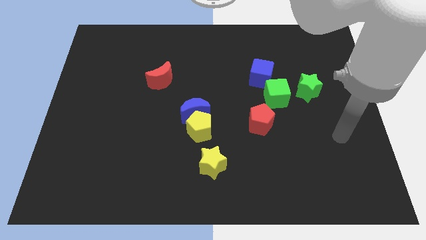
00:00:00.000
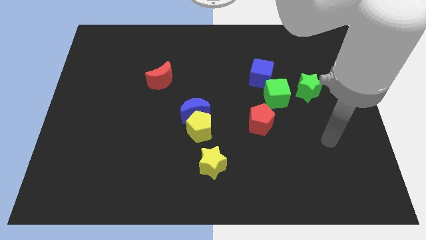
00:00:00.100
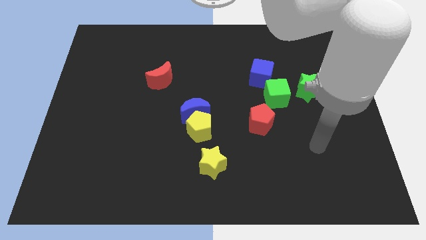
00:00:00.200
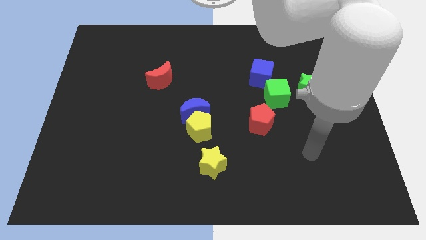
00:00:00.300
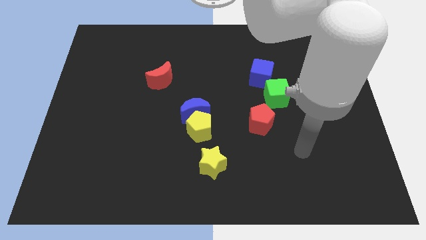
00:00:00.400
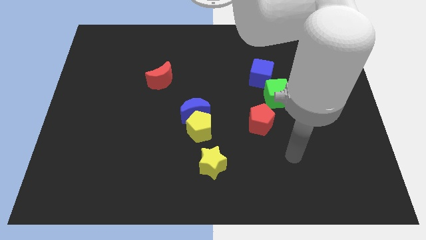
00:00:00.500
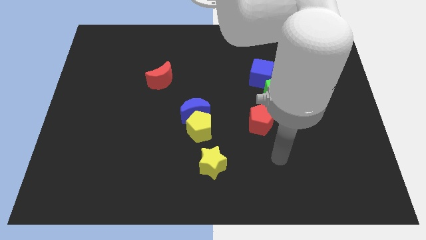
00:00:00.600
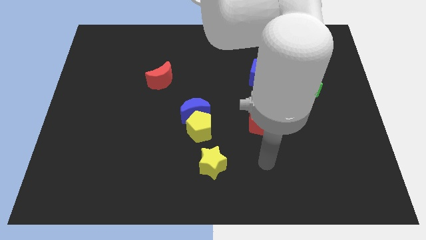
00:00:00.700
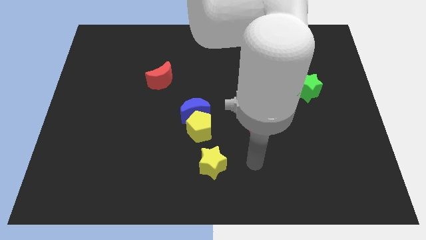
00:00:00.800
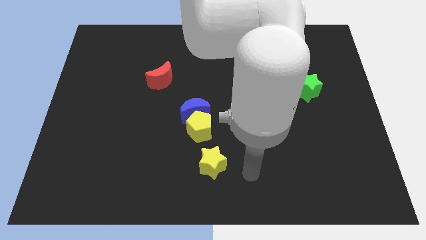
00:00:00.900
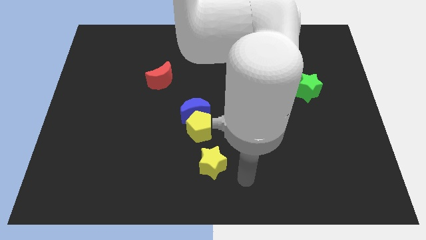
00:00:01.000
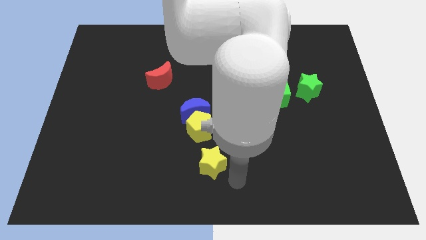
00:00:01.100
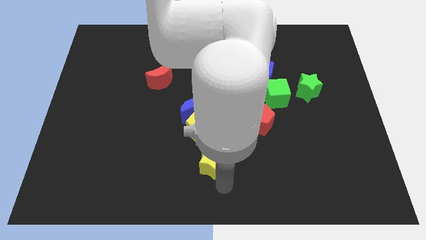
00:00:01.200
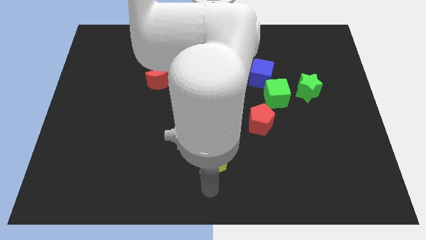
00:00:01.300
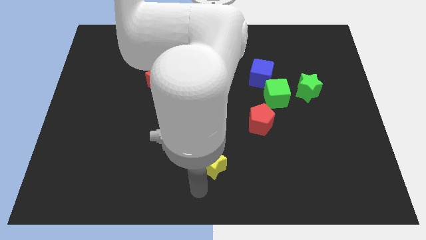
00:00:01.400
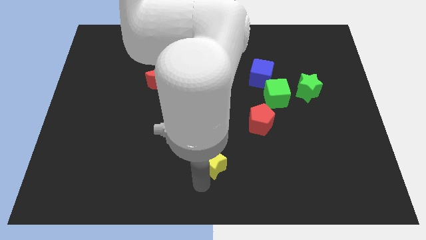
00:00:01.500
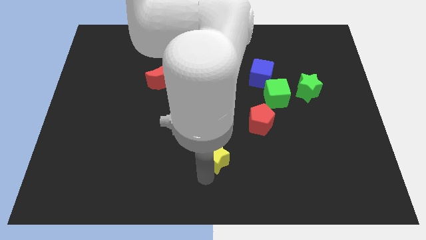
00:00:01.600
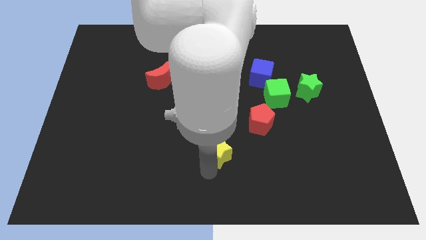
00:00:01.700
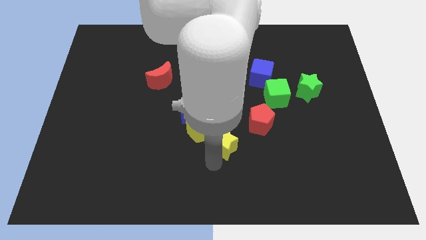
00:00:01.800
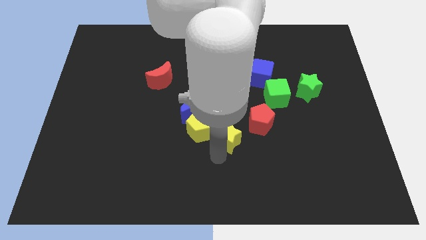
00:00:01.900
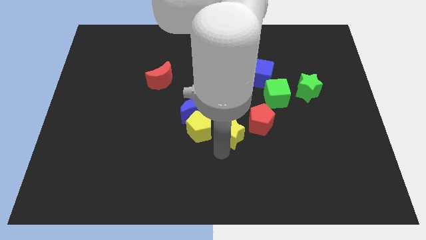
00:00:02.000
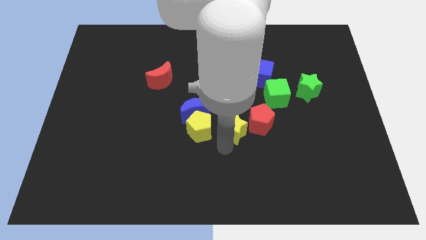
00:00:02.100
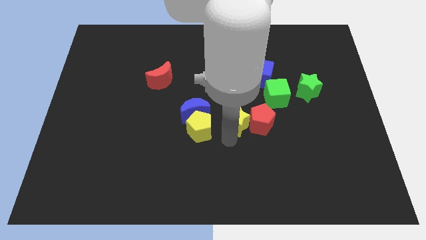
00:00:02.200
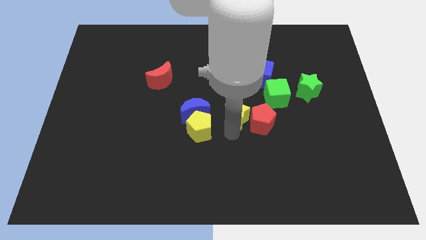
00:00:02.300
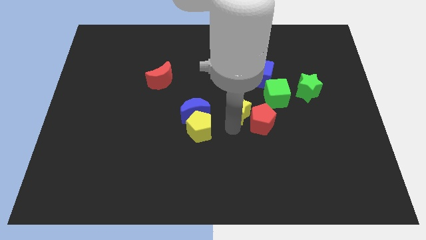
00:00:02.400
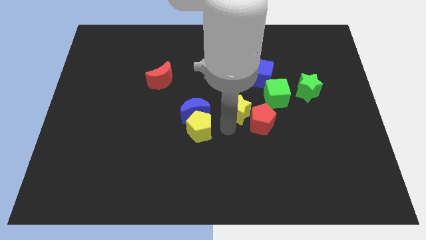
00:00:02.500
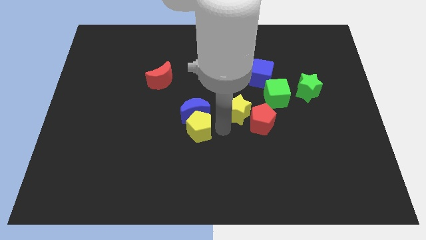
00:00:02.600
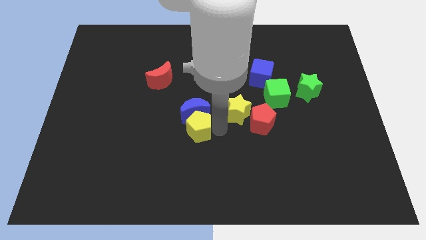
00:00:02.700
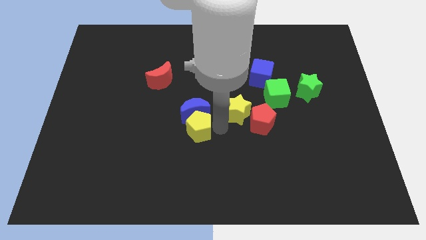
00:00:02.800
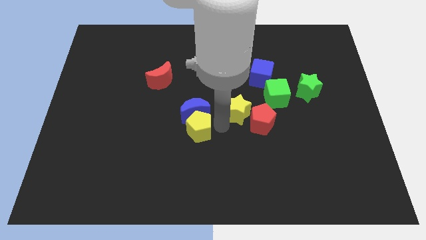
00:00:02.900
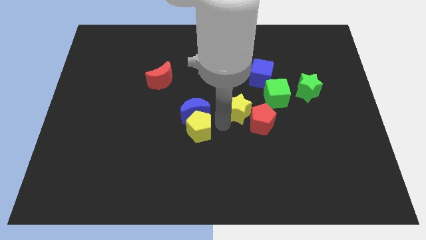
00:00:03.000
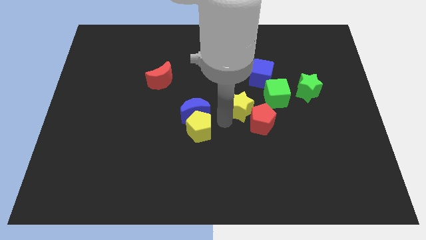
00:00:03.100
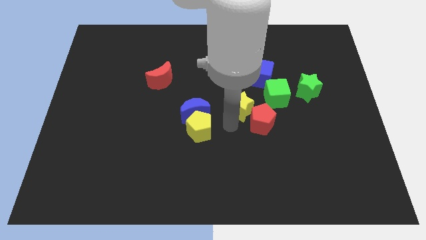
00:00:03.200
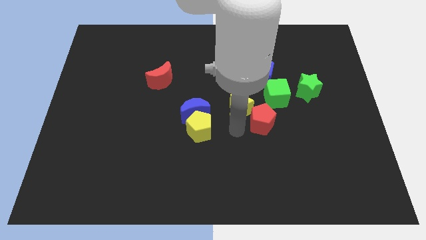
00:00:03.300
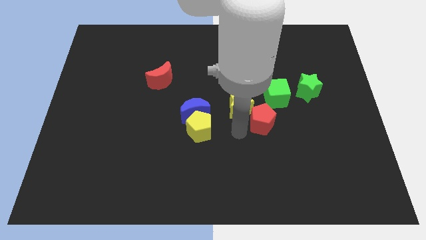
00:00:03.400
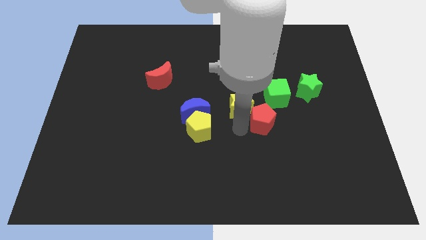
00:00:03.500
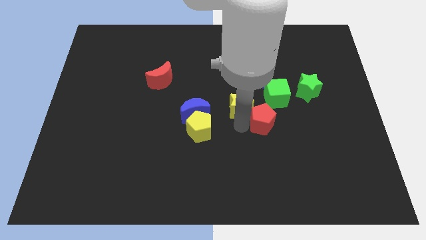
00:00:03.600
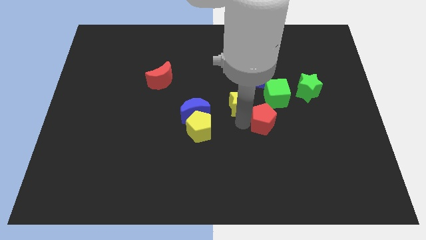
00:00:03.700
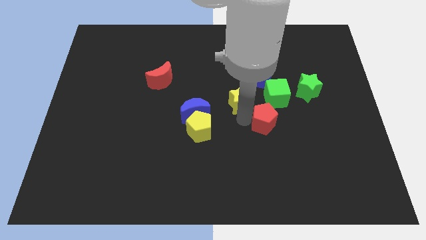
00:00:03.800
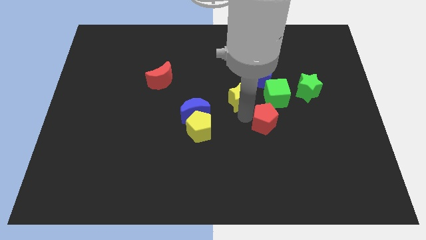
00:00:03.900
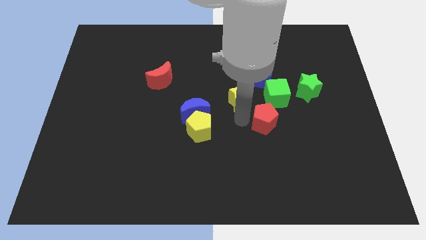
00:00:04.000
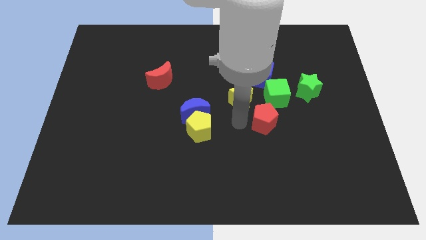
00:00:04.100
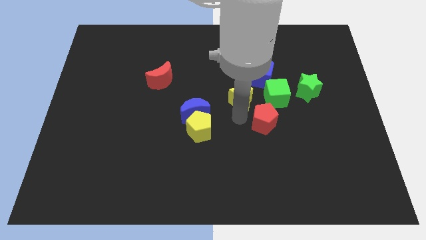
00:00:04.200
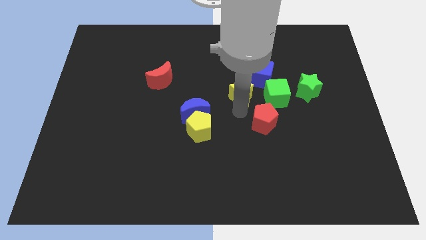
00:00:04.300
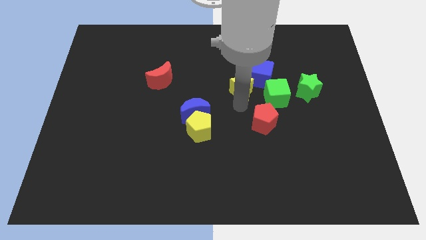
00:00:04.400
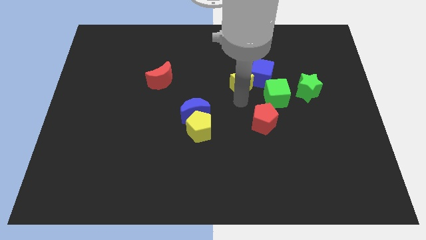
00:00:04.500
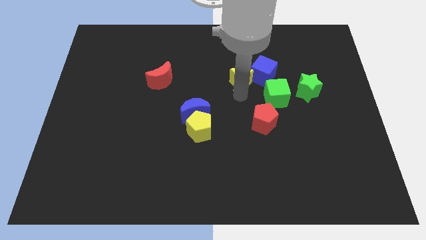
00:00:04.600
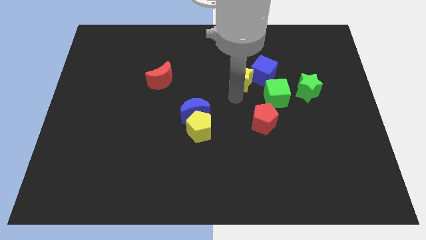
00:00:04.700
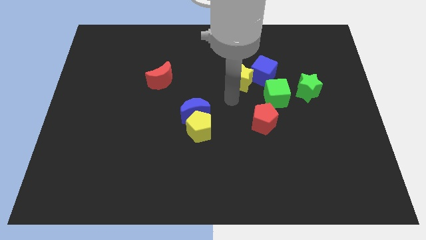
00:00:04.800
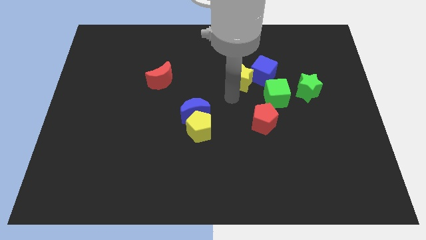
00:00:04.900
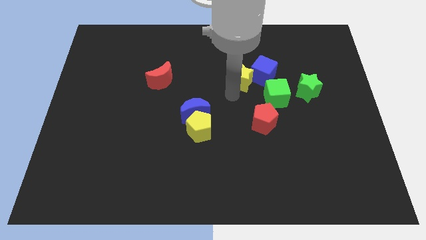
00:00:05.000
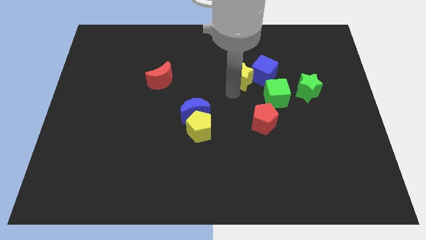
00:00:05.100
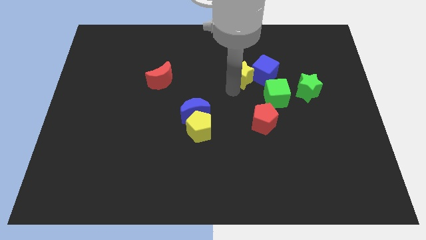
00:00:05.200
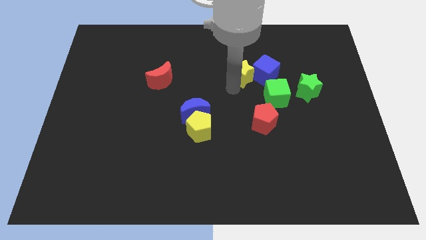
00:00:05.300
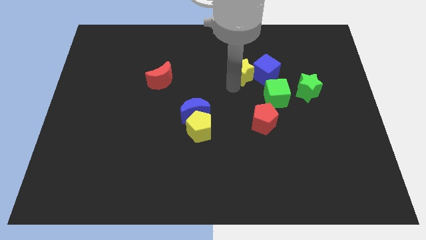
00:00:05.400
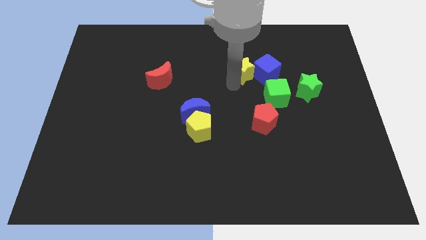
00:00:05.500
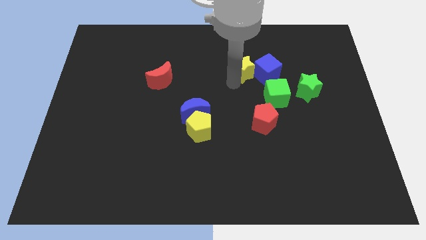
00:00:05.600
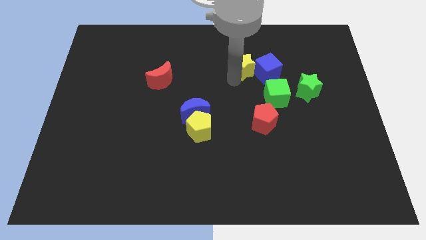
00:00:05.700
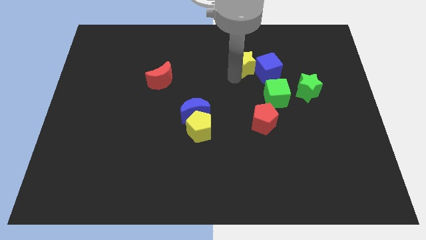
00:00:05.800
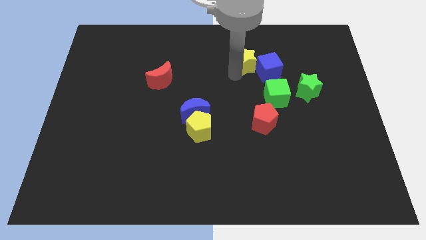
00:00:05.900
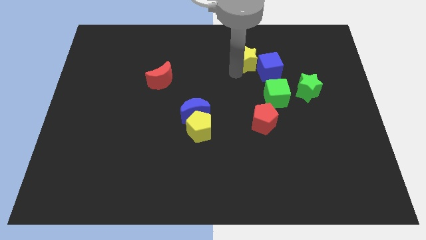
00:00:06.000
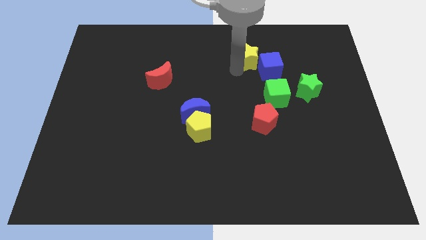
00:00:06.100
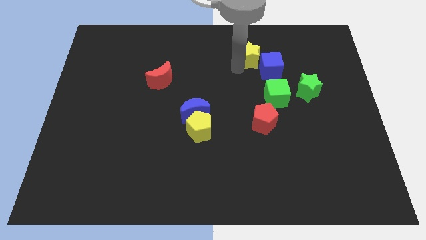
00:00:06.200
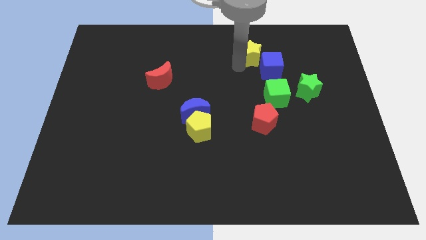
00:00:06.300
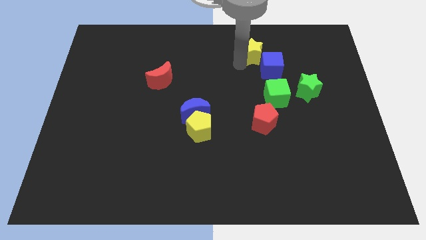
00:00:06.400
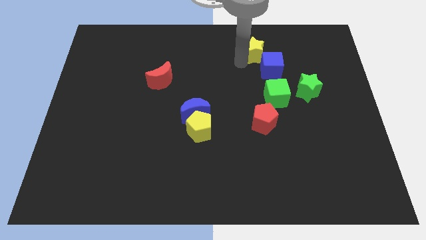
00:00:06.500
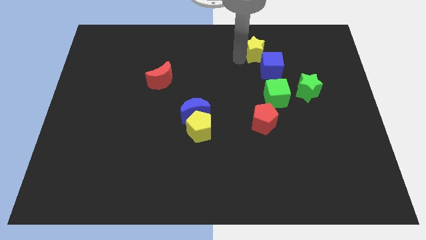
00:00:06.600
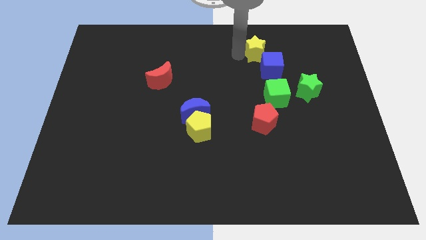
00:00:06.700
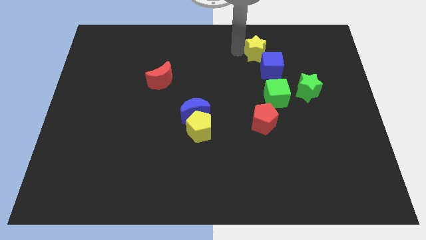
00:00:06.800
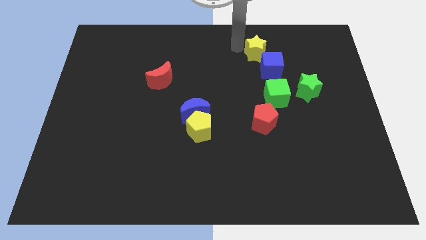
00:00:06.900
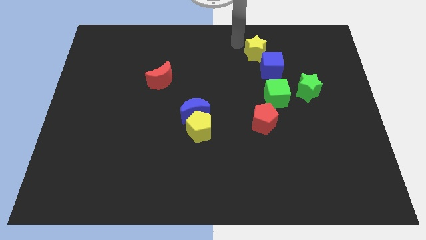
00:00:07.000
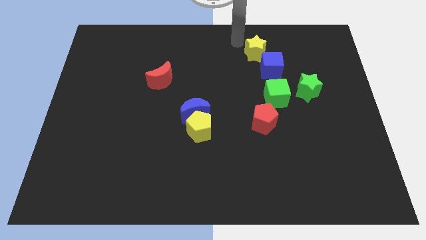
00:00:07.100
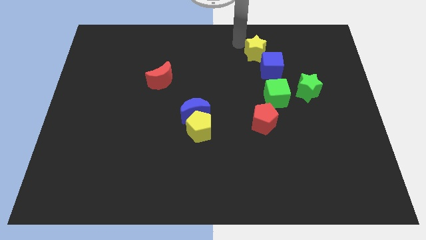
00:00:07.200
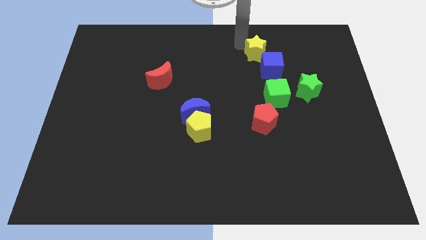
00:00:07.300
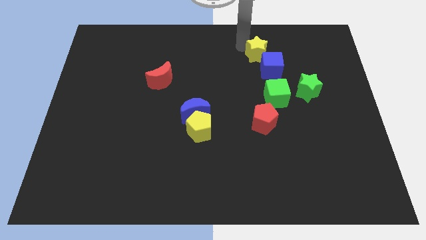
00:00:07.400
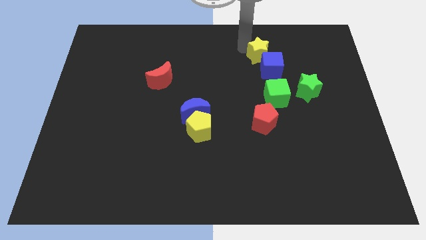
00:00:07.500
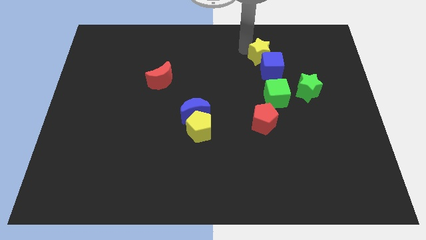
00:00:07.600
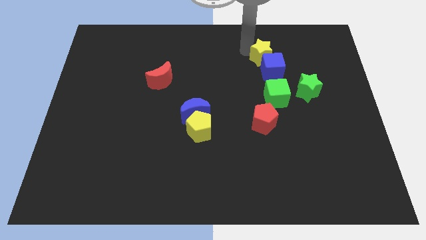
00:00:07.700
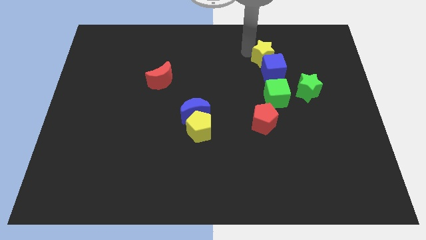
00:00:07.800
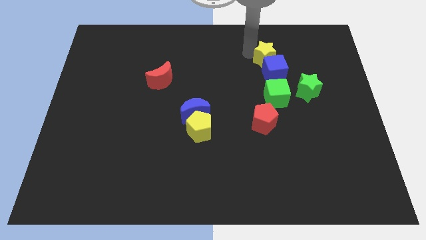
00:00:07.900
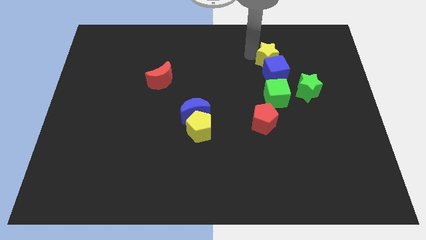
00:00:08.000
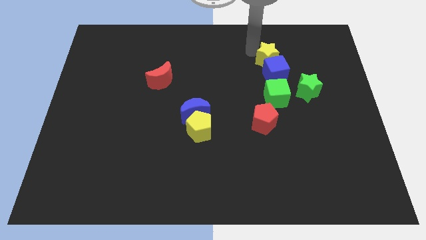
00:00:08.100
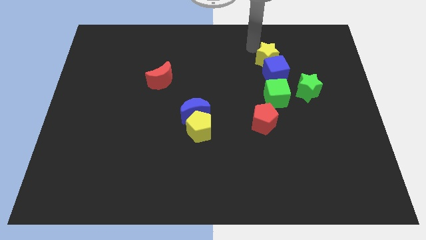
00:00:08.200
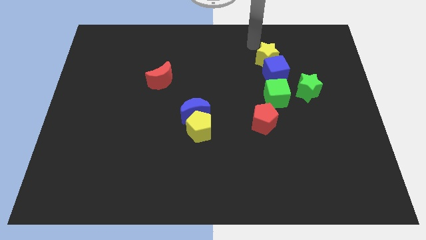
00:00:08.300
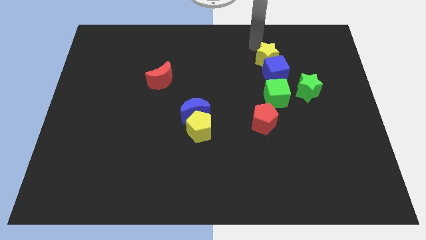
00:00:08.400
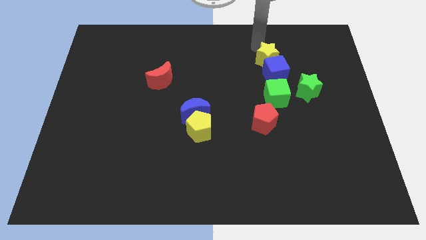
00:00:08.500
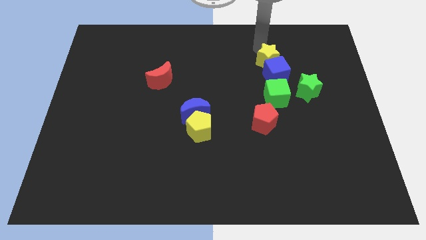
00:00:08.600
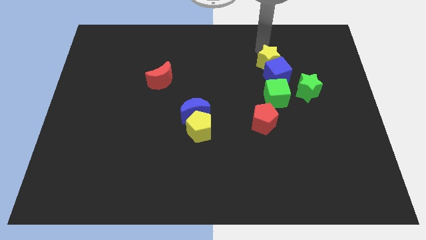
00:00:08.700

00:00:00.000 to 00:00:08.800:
push the yellow star to the top left of the green star
